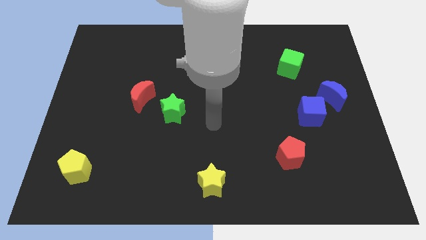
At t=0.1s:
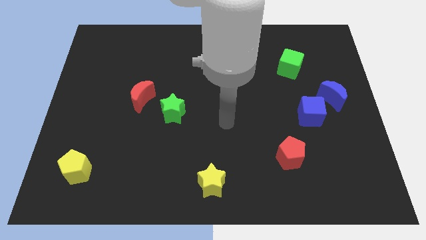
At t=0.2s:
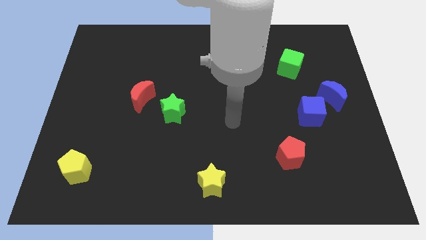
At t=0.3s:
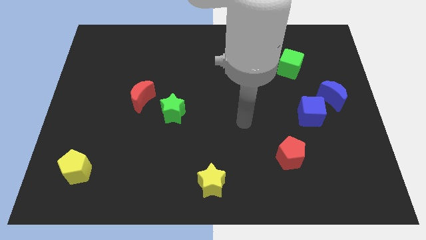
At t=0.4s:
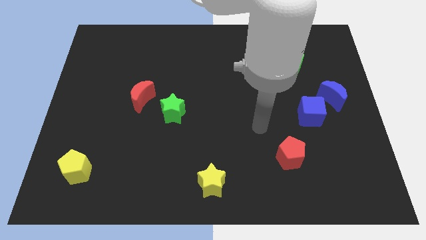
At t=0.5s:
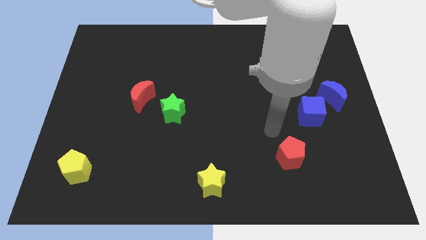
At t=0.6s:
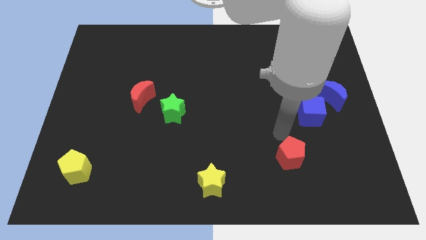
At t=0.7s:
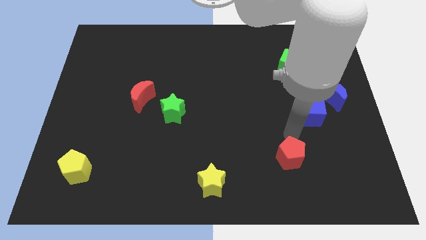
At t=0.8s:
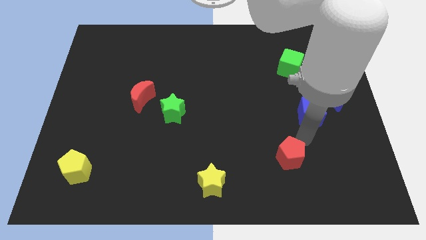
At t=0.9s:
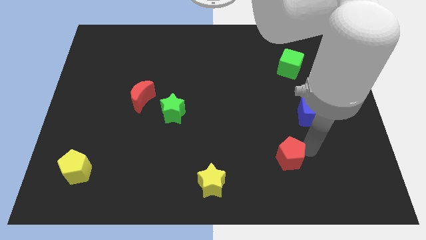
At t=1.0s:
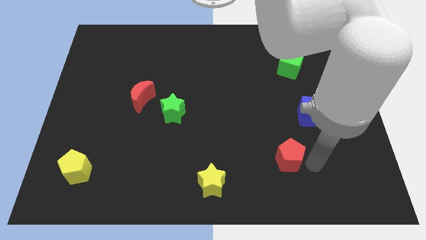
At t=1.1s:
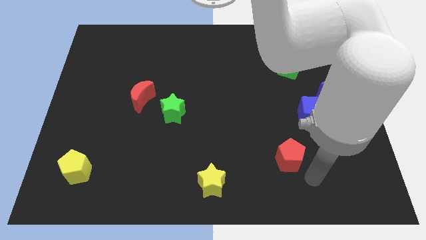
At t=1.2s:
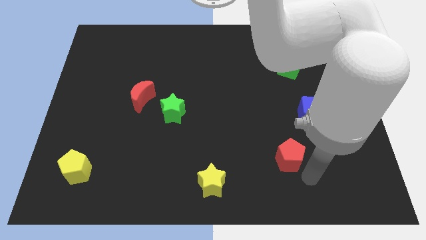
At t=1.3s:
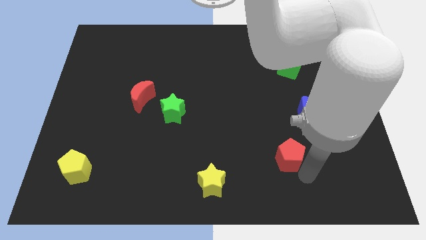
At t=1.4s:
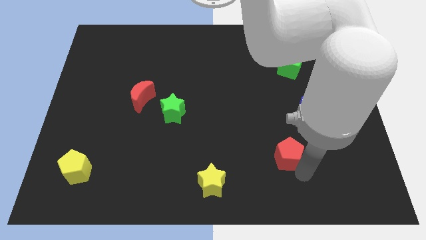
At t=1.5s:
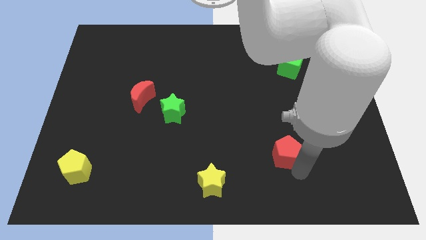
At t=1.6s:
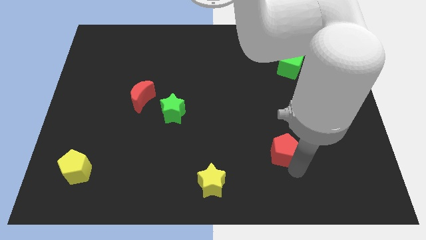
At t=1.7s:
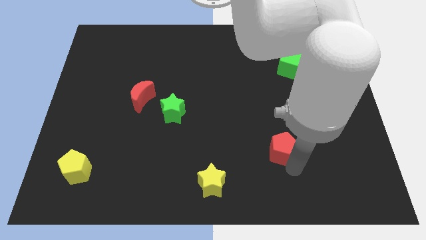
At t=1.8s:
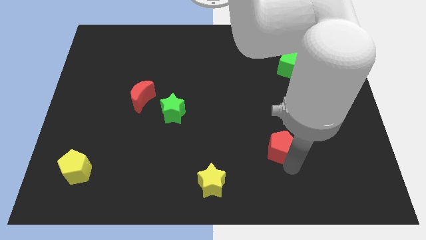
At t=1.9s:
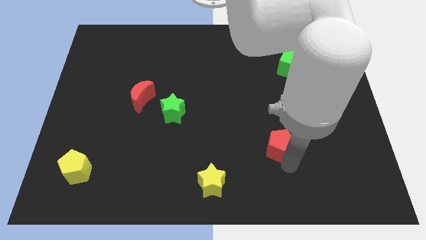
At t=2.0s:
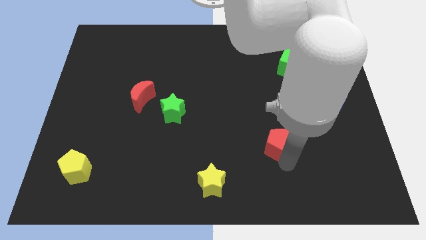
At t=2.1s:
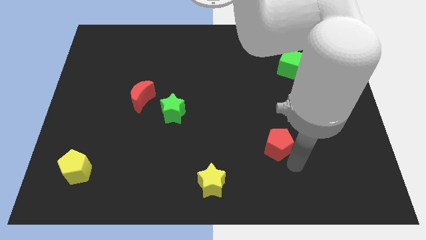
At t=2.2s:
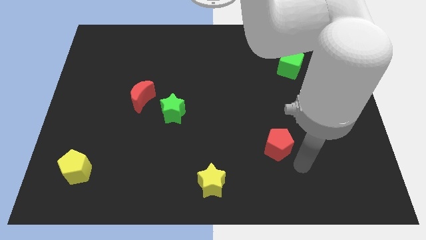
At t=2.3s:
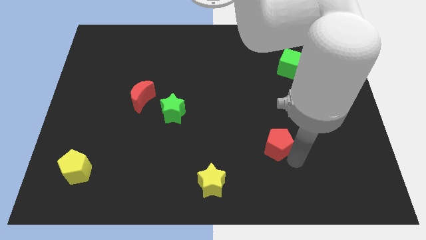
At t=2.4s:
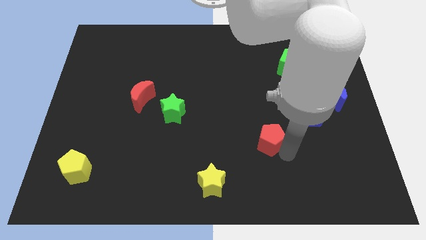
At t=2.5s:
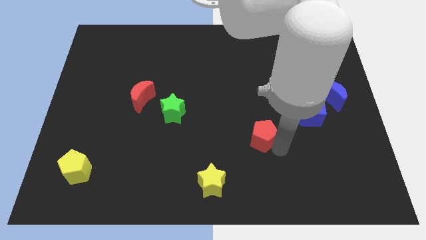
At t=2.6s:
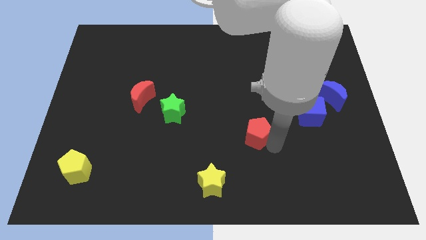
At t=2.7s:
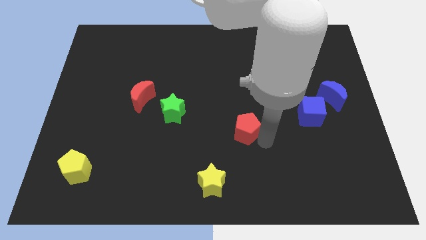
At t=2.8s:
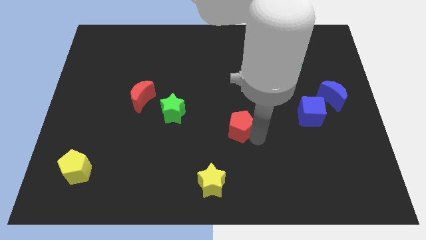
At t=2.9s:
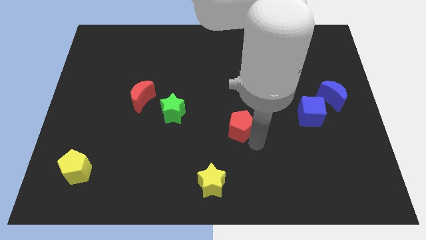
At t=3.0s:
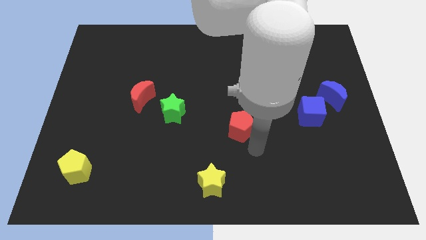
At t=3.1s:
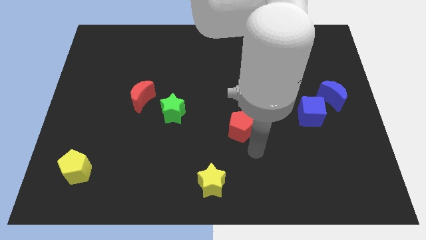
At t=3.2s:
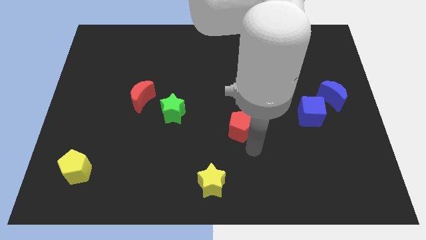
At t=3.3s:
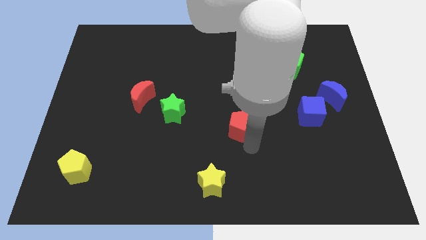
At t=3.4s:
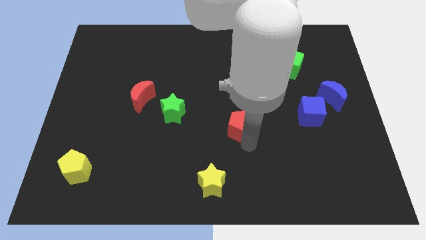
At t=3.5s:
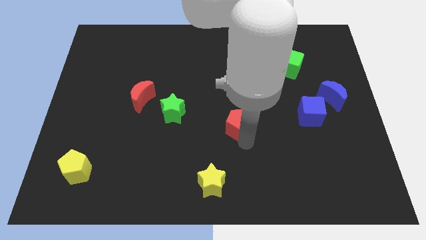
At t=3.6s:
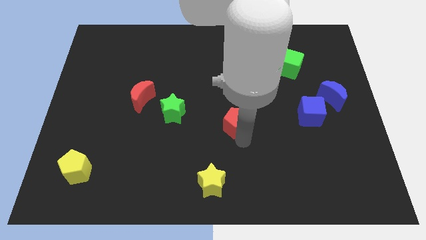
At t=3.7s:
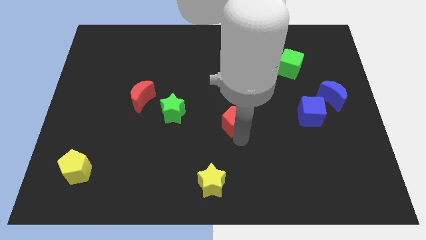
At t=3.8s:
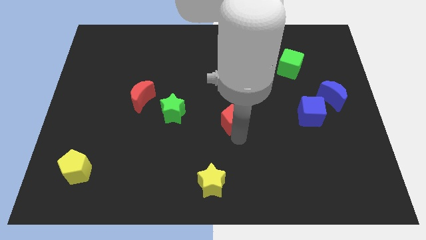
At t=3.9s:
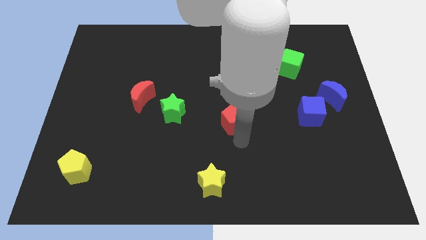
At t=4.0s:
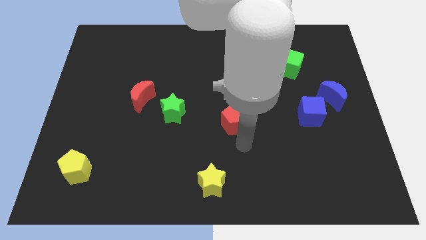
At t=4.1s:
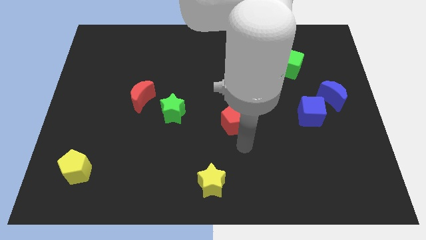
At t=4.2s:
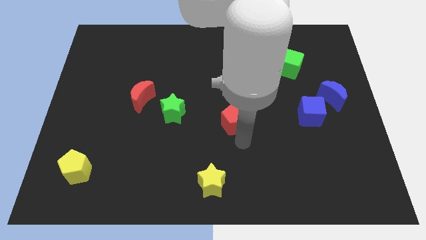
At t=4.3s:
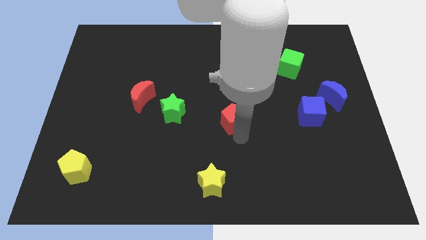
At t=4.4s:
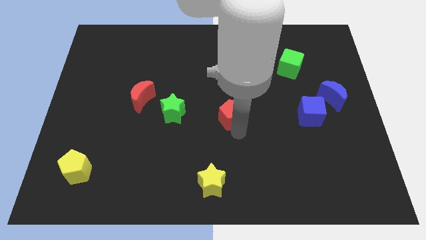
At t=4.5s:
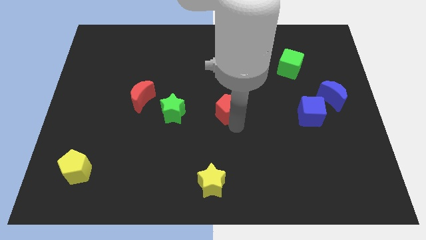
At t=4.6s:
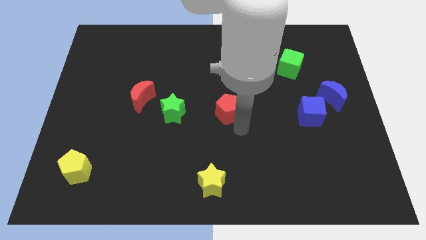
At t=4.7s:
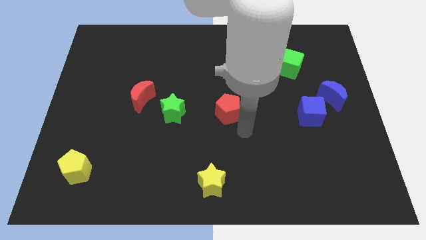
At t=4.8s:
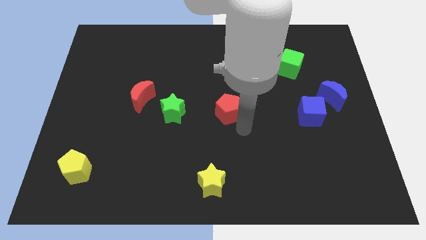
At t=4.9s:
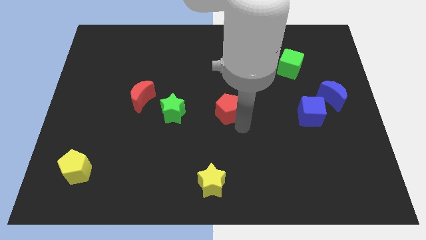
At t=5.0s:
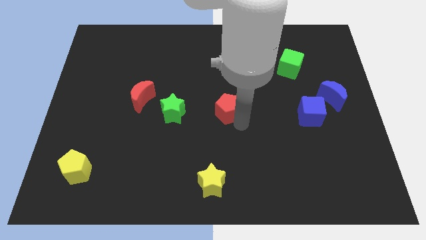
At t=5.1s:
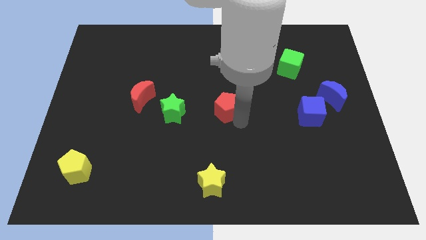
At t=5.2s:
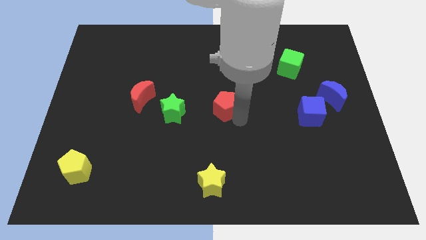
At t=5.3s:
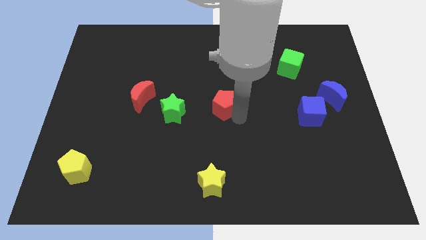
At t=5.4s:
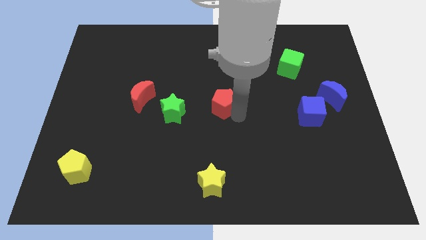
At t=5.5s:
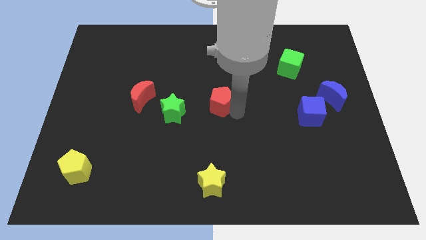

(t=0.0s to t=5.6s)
slide the red pentagon upwards and then to the left

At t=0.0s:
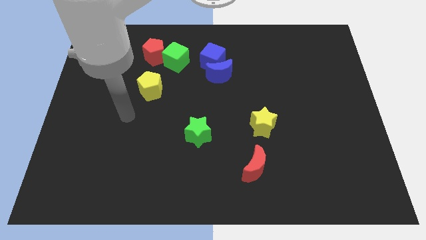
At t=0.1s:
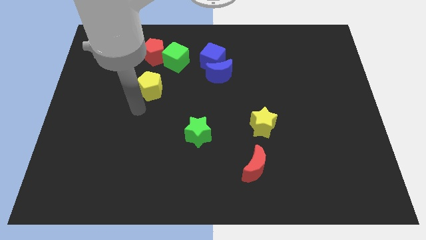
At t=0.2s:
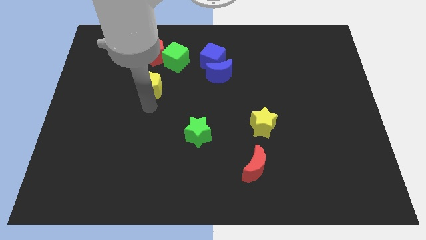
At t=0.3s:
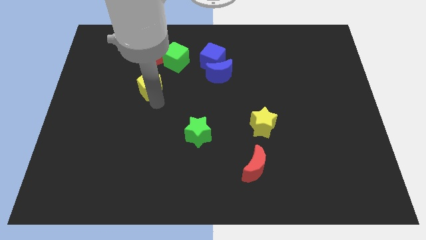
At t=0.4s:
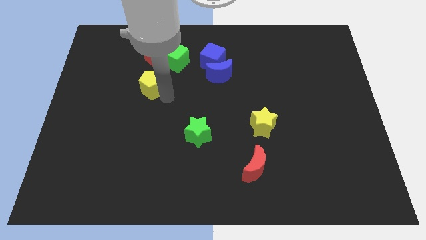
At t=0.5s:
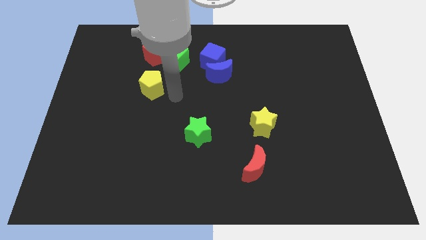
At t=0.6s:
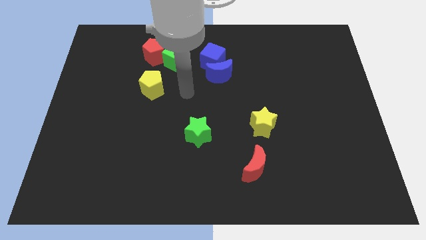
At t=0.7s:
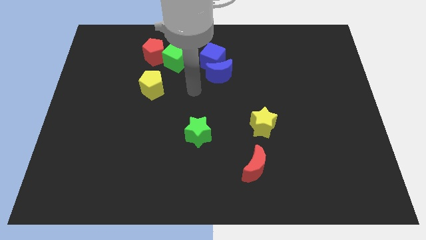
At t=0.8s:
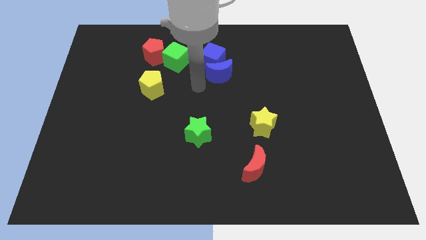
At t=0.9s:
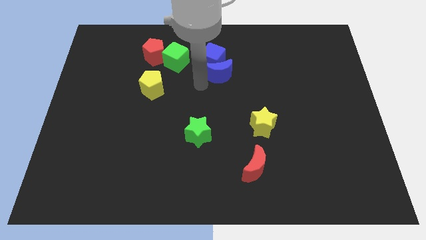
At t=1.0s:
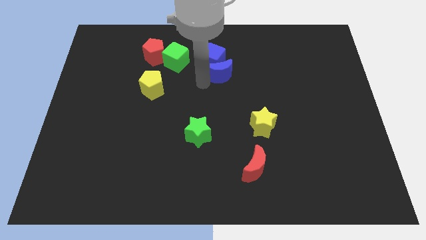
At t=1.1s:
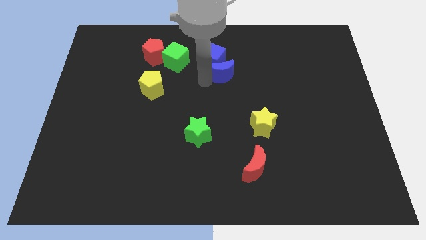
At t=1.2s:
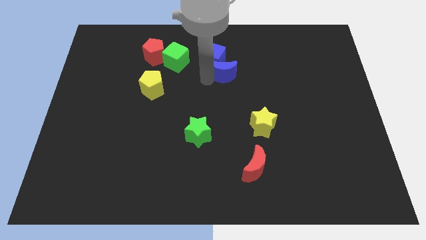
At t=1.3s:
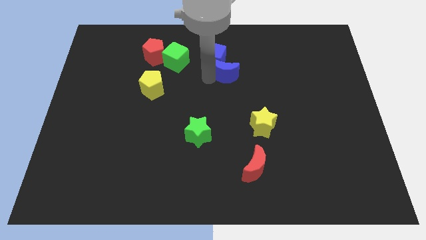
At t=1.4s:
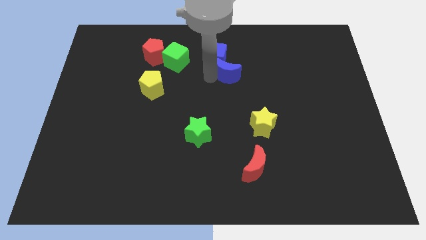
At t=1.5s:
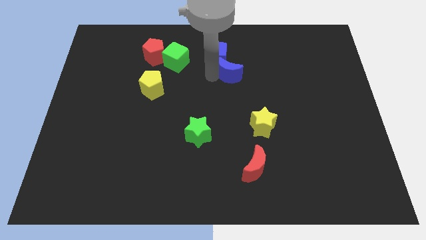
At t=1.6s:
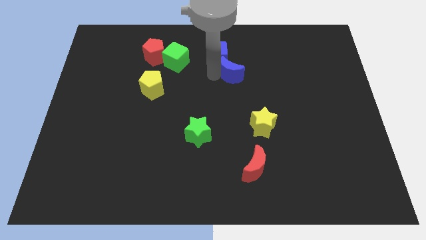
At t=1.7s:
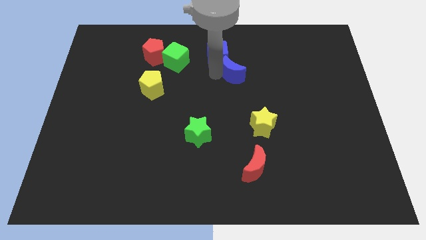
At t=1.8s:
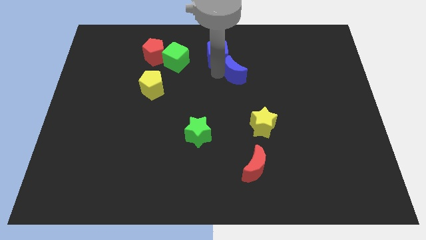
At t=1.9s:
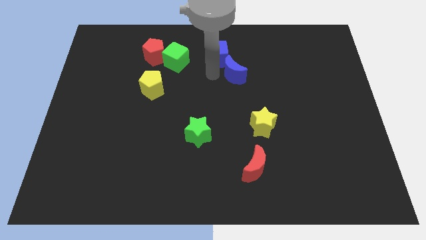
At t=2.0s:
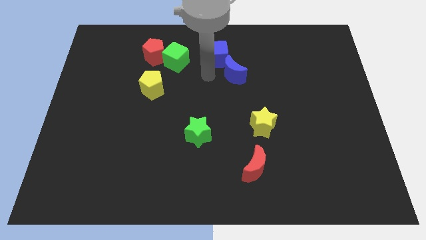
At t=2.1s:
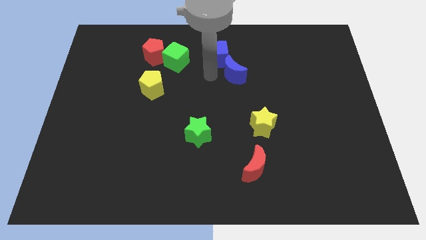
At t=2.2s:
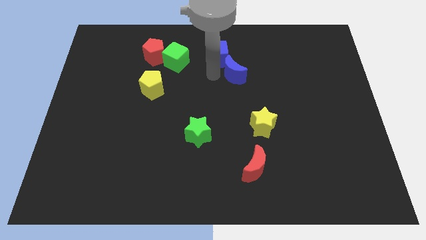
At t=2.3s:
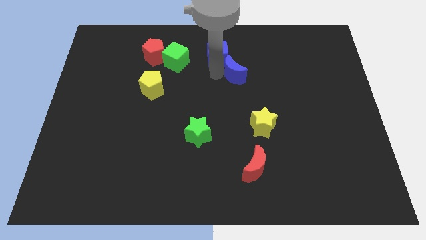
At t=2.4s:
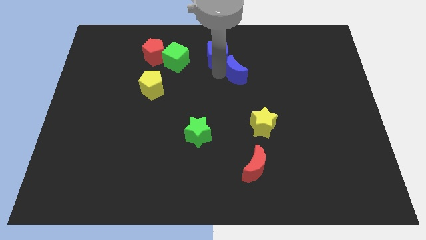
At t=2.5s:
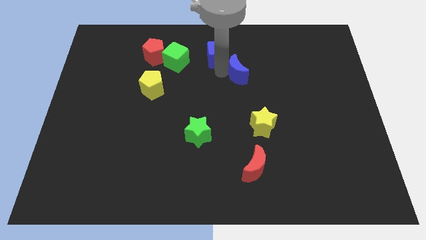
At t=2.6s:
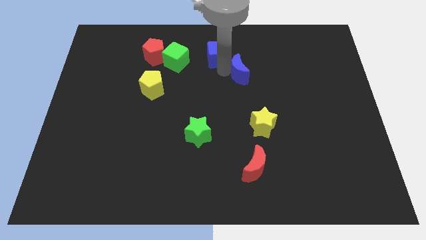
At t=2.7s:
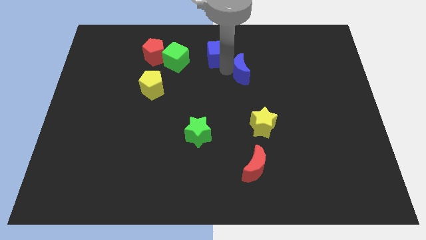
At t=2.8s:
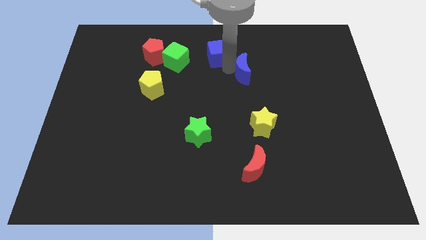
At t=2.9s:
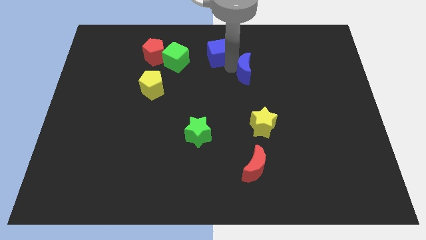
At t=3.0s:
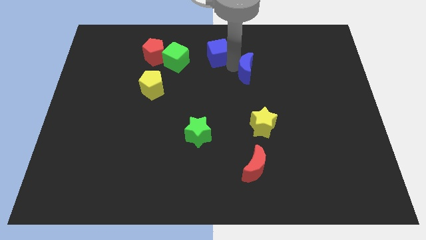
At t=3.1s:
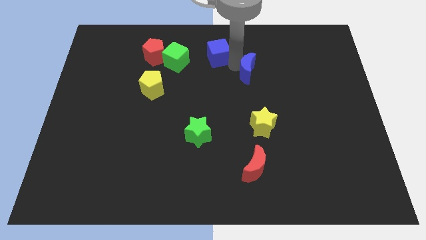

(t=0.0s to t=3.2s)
move the blue moon somewhat right
